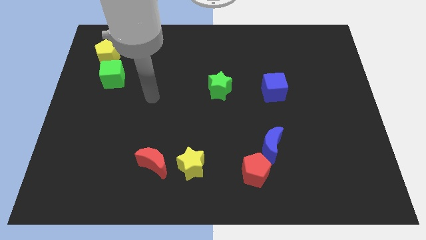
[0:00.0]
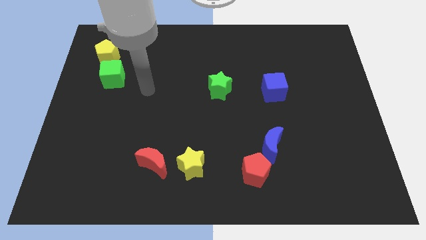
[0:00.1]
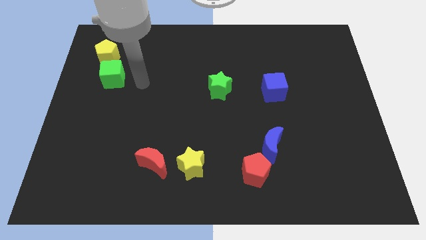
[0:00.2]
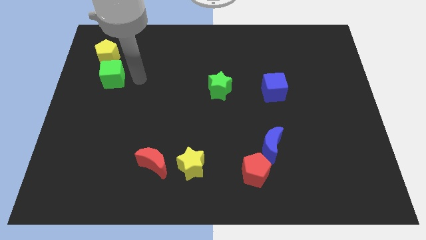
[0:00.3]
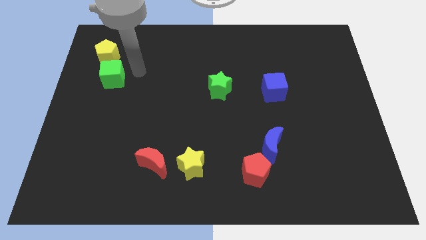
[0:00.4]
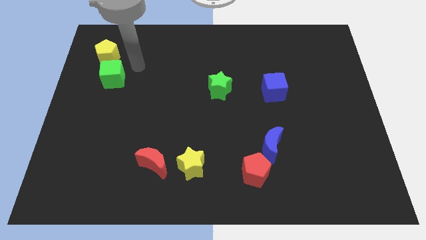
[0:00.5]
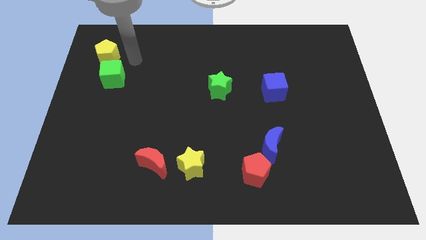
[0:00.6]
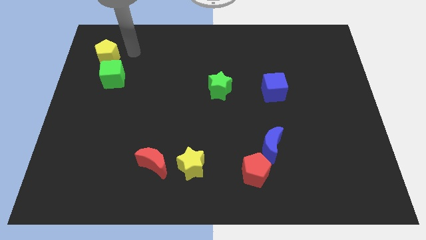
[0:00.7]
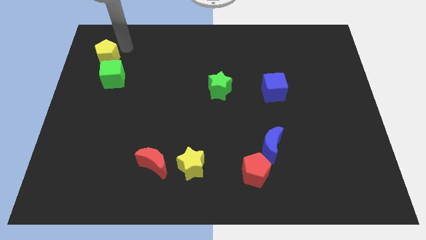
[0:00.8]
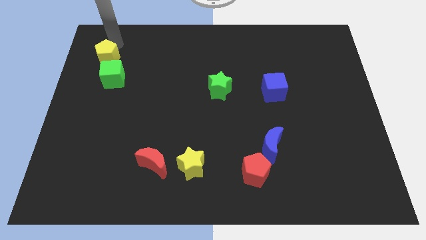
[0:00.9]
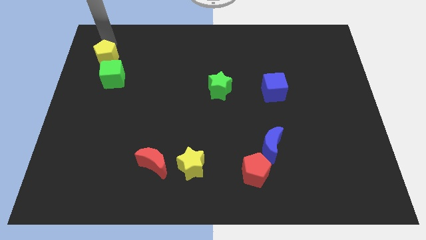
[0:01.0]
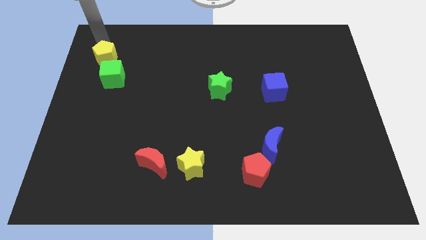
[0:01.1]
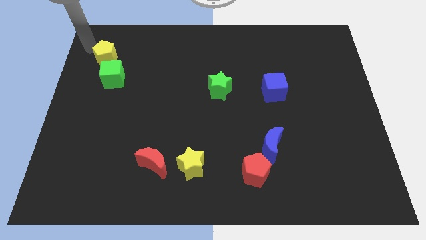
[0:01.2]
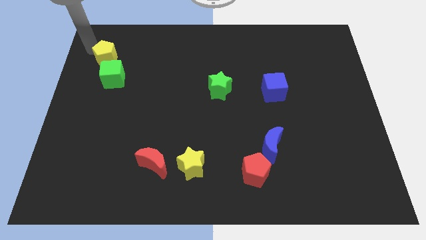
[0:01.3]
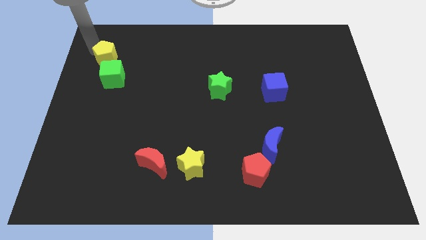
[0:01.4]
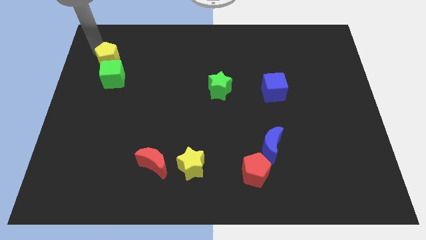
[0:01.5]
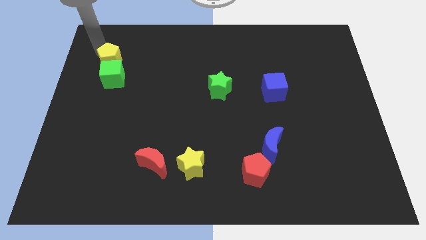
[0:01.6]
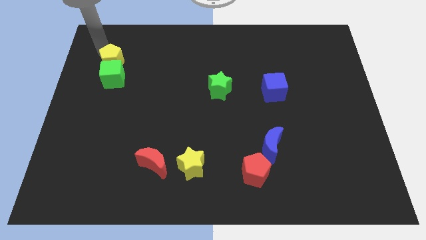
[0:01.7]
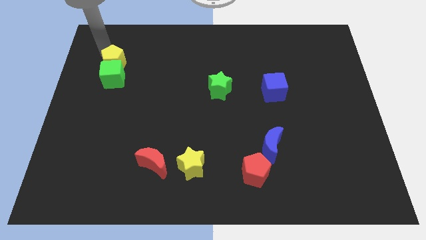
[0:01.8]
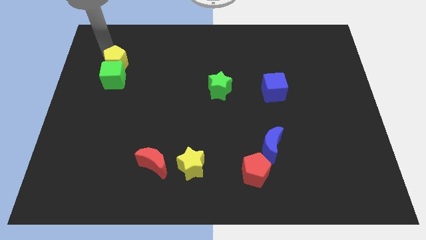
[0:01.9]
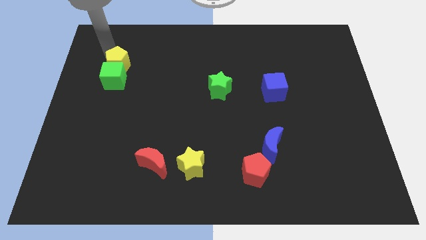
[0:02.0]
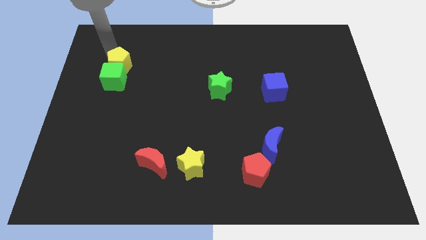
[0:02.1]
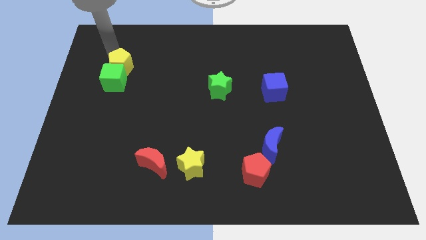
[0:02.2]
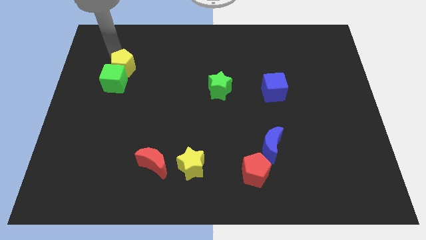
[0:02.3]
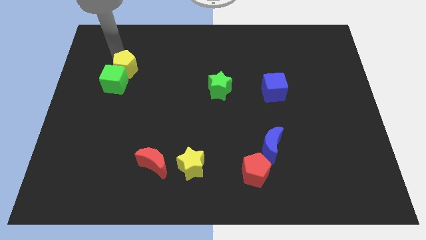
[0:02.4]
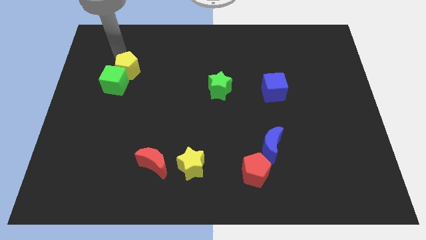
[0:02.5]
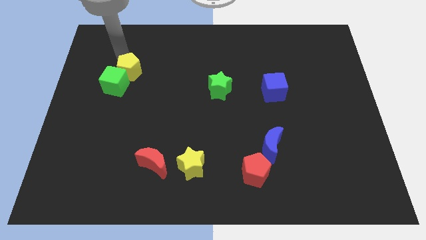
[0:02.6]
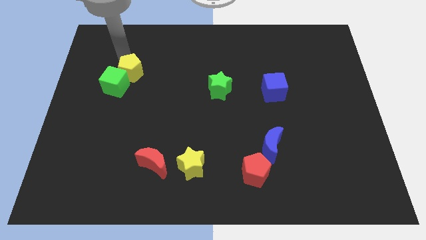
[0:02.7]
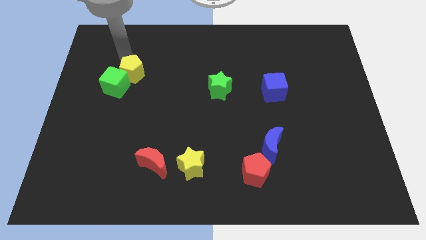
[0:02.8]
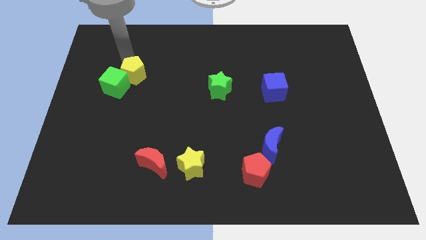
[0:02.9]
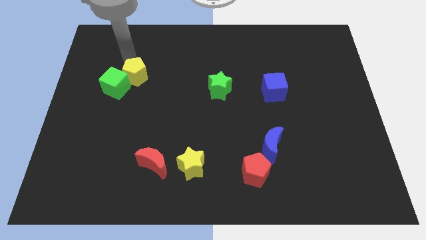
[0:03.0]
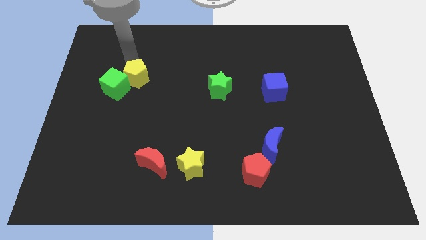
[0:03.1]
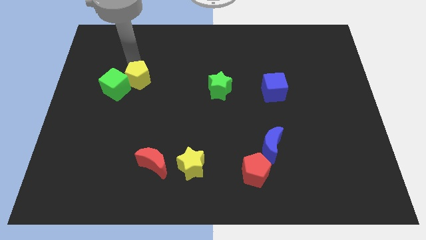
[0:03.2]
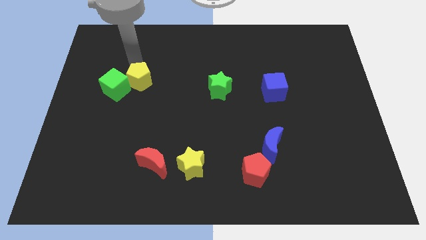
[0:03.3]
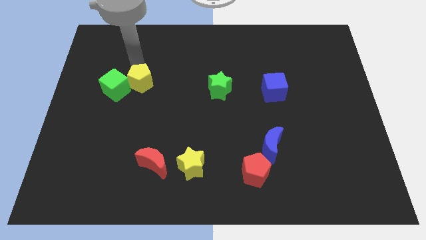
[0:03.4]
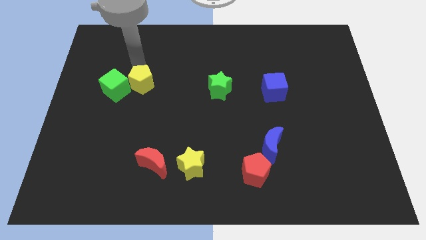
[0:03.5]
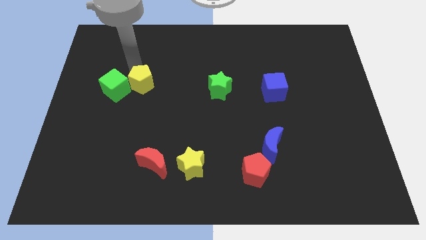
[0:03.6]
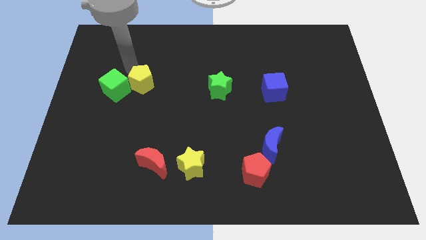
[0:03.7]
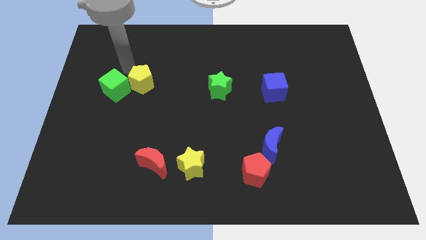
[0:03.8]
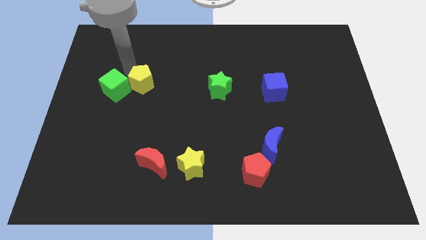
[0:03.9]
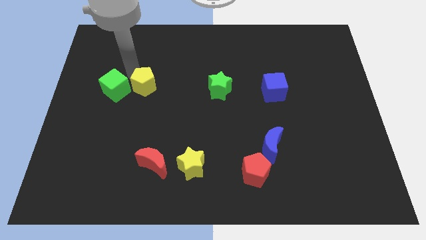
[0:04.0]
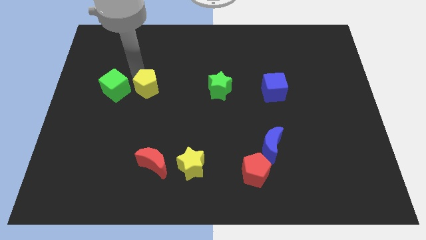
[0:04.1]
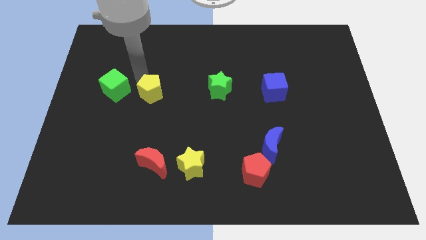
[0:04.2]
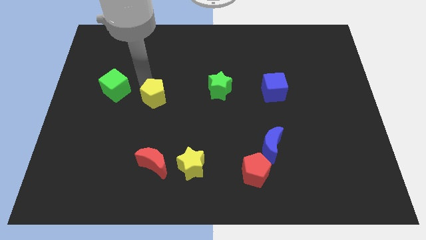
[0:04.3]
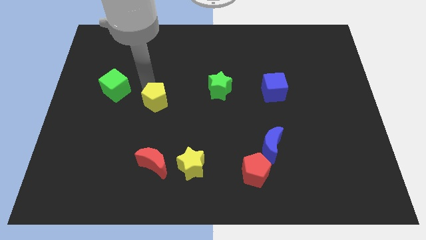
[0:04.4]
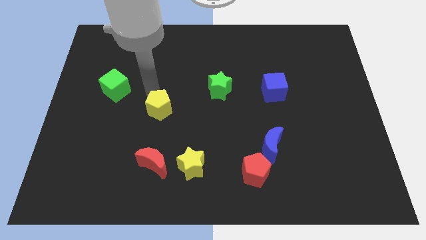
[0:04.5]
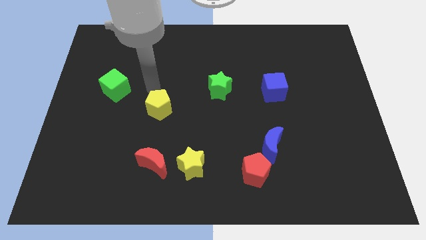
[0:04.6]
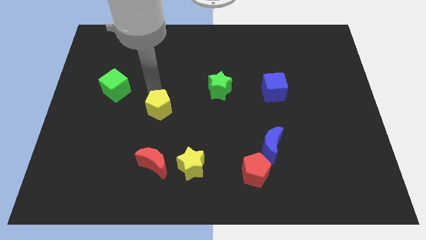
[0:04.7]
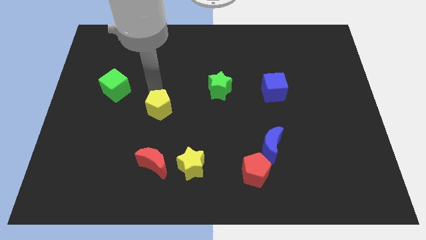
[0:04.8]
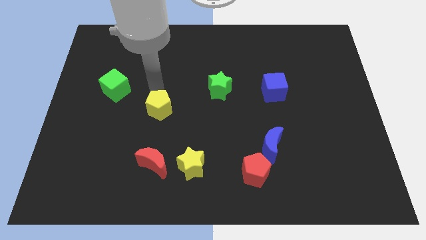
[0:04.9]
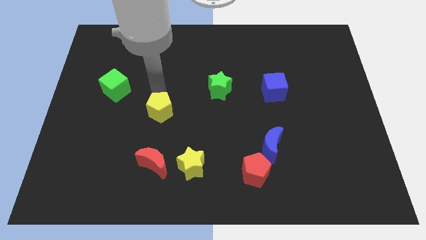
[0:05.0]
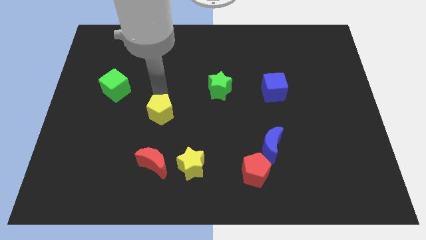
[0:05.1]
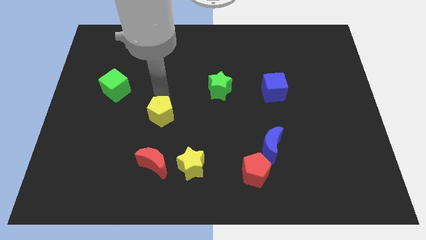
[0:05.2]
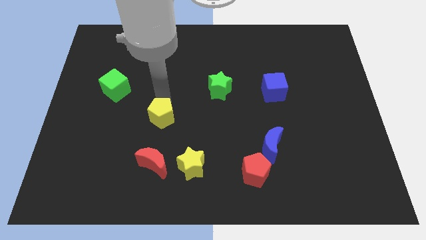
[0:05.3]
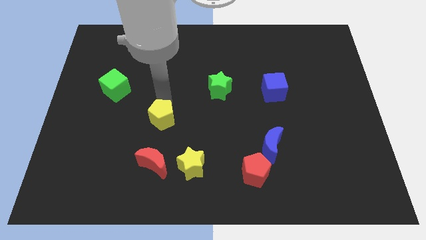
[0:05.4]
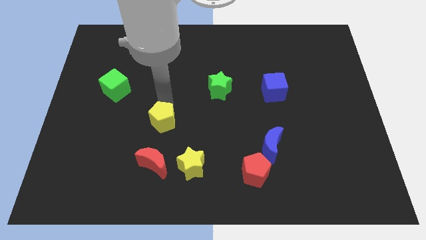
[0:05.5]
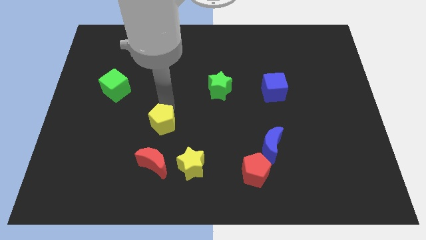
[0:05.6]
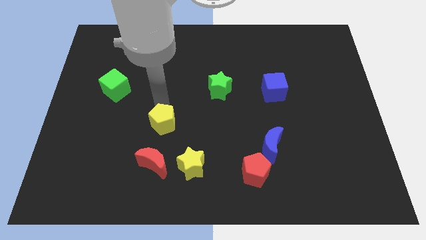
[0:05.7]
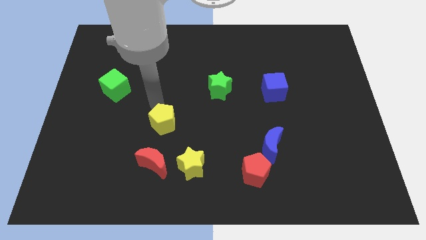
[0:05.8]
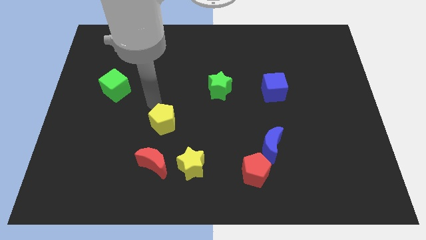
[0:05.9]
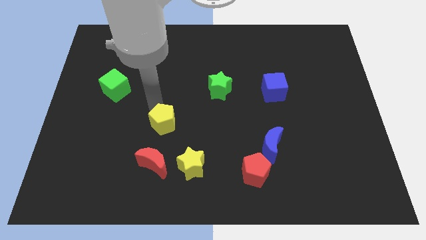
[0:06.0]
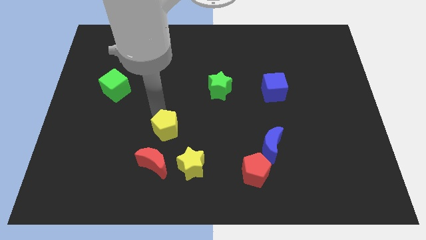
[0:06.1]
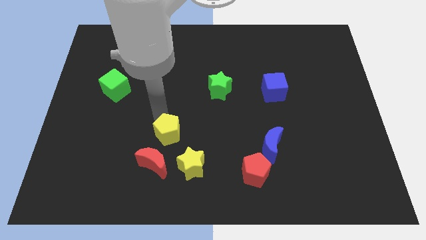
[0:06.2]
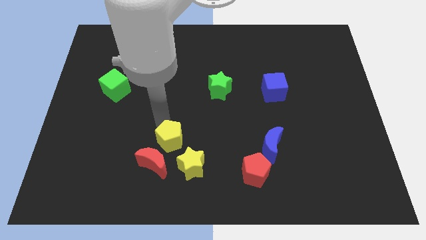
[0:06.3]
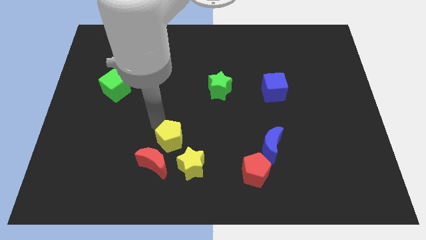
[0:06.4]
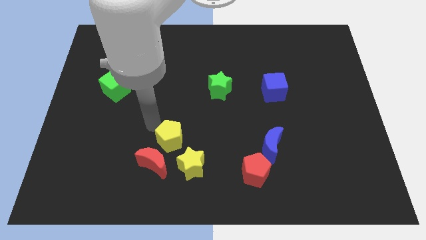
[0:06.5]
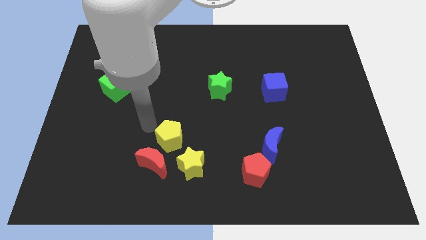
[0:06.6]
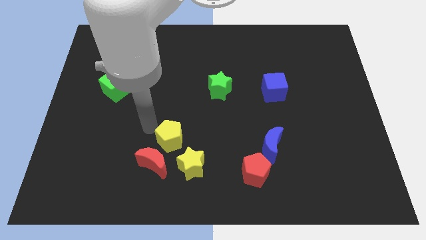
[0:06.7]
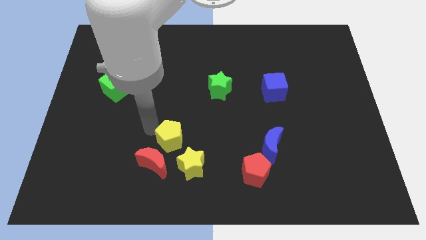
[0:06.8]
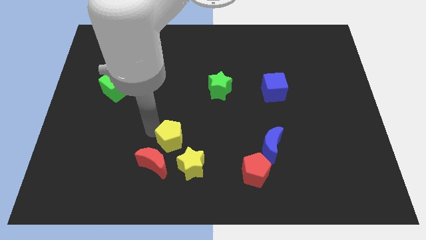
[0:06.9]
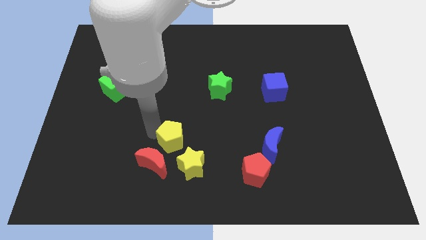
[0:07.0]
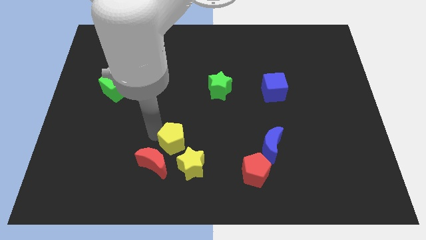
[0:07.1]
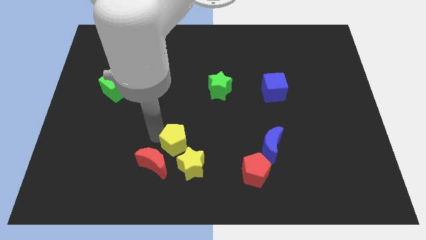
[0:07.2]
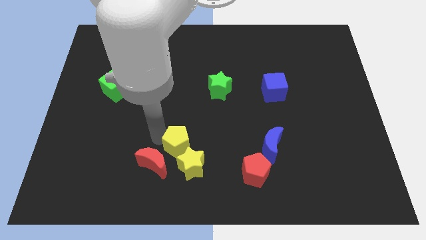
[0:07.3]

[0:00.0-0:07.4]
move the yellow pentagon next to the yellow star
